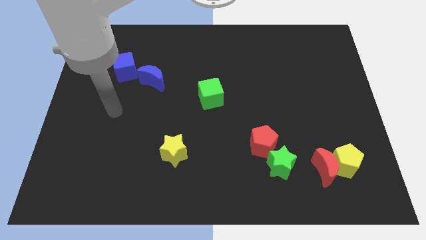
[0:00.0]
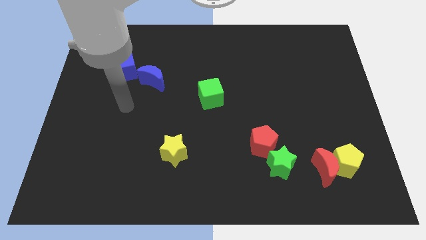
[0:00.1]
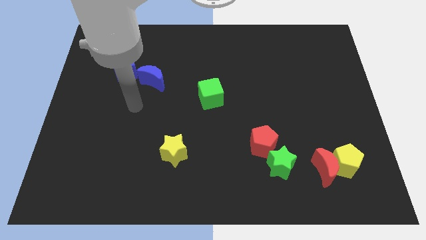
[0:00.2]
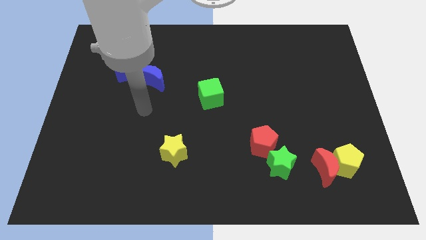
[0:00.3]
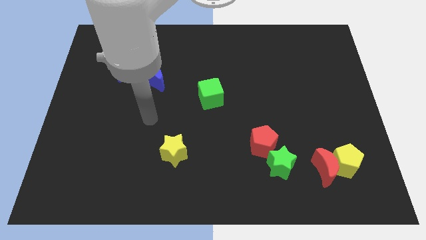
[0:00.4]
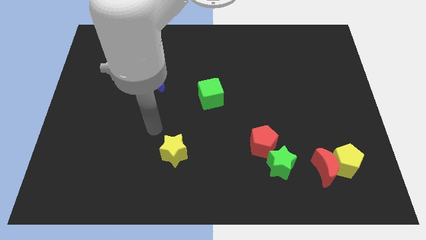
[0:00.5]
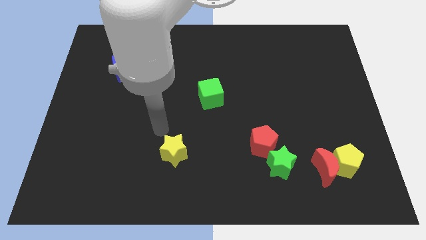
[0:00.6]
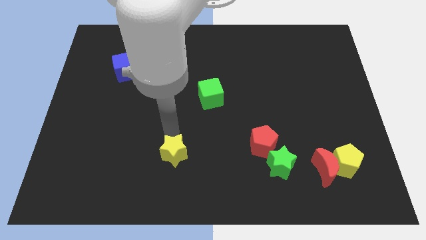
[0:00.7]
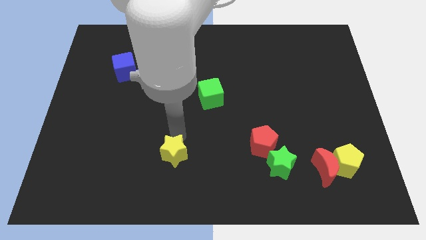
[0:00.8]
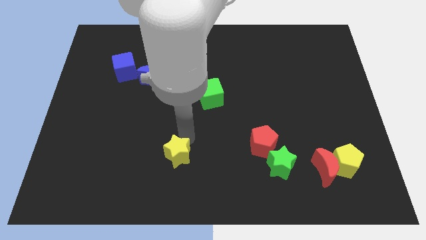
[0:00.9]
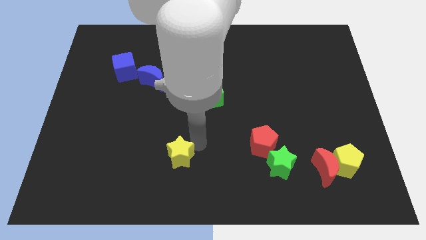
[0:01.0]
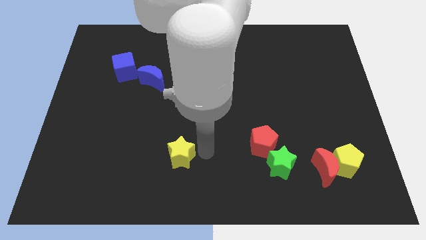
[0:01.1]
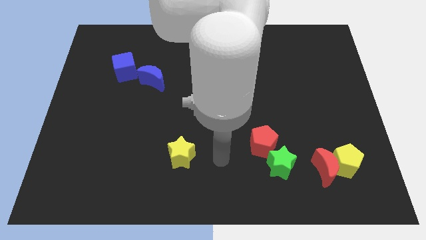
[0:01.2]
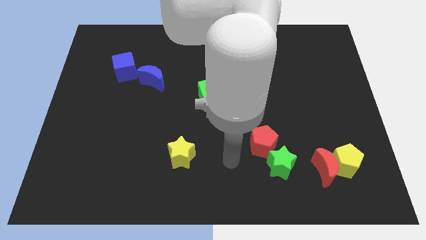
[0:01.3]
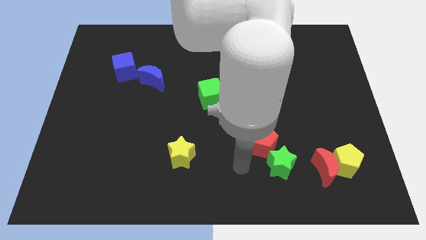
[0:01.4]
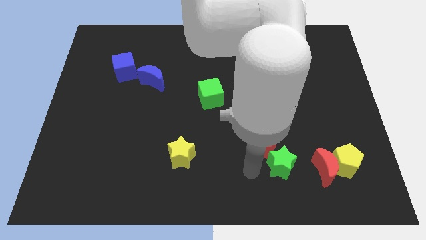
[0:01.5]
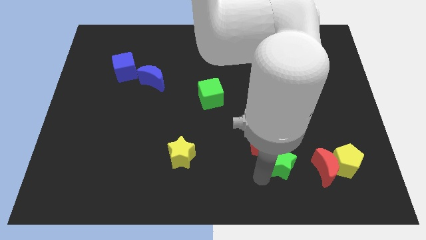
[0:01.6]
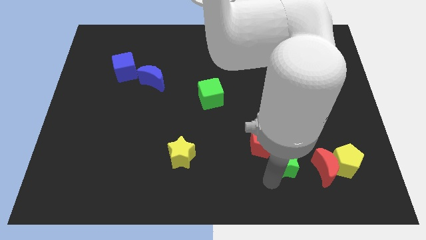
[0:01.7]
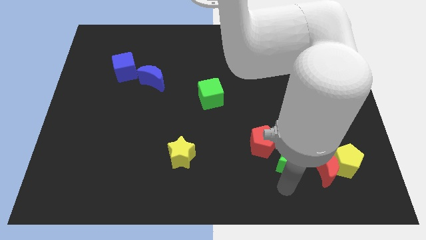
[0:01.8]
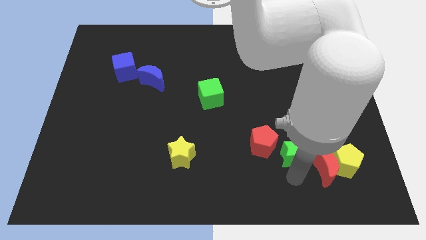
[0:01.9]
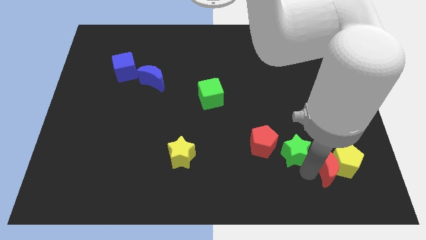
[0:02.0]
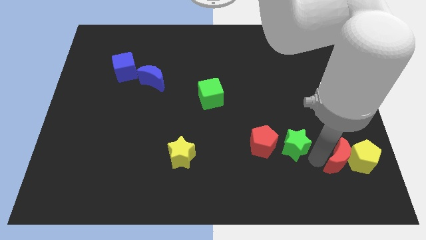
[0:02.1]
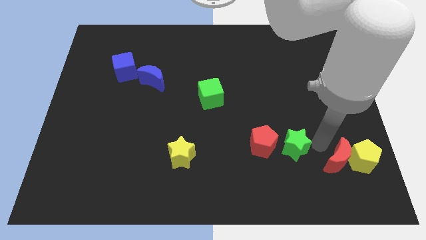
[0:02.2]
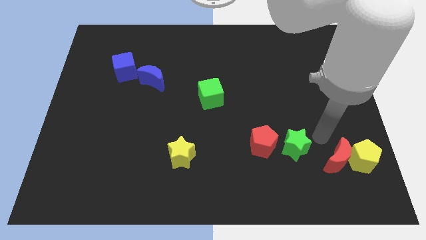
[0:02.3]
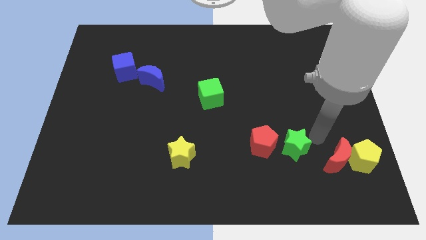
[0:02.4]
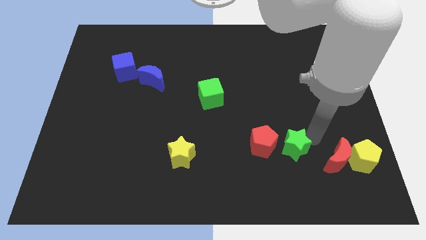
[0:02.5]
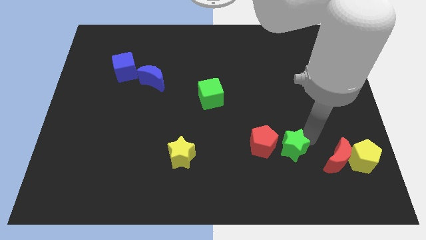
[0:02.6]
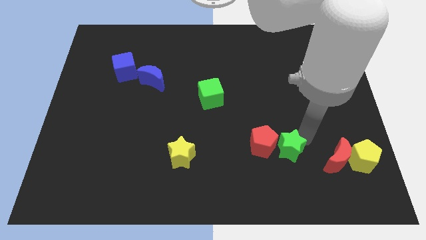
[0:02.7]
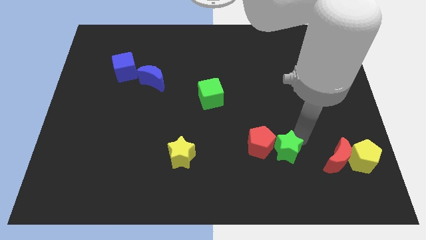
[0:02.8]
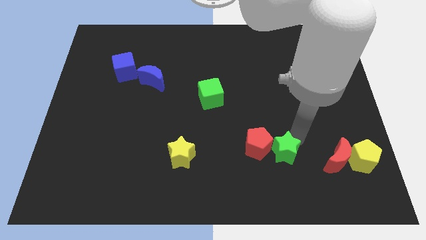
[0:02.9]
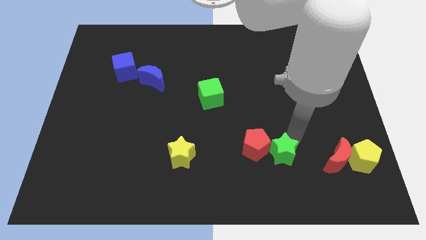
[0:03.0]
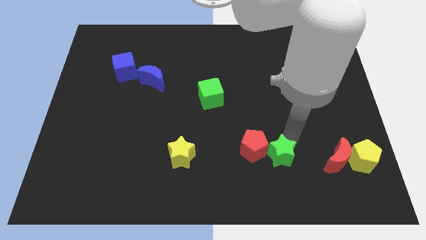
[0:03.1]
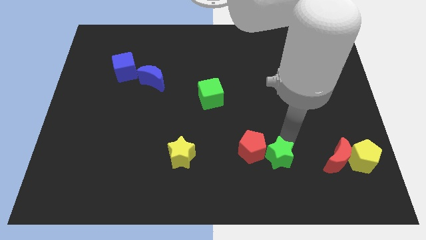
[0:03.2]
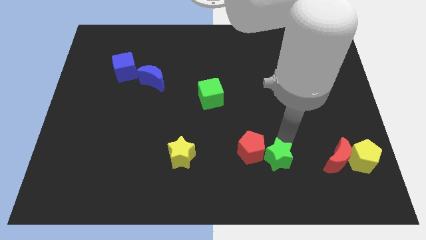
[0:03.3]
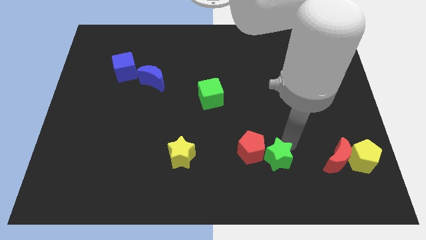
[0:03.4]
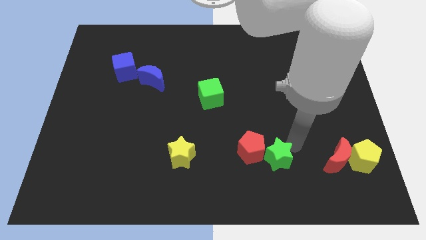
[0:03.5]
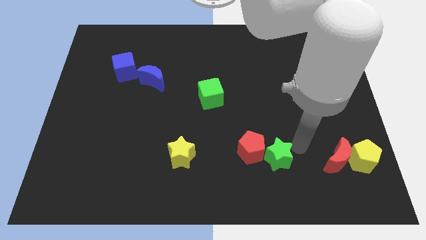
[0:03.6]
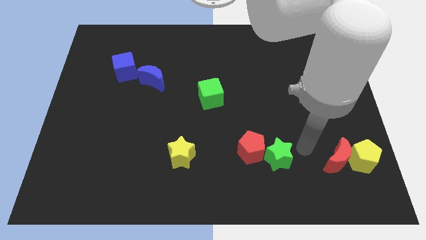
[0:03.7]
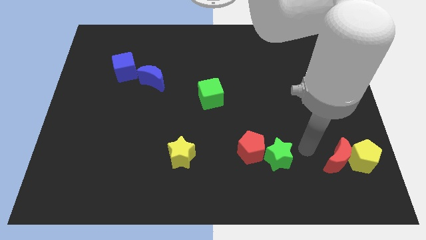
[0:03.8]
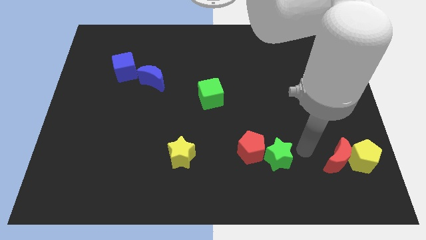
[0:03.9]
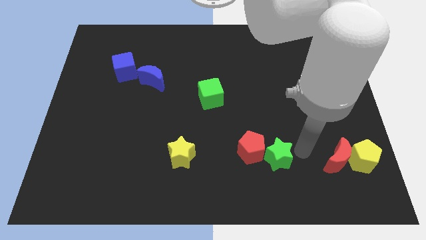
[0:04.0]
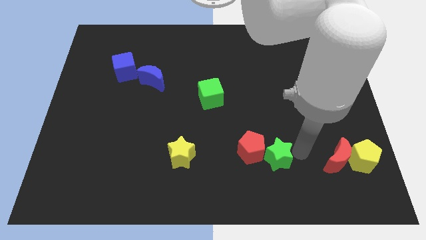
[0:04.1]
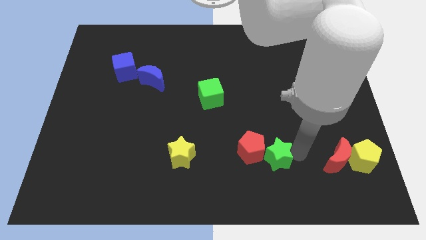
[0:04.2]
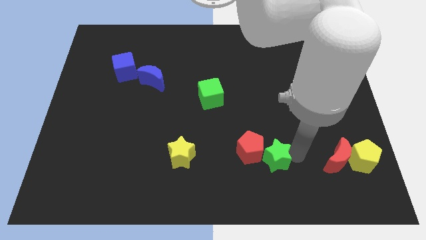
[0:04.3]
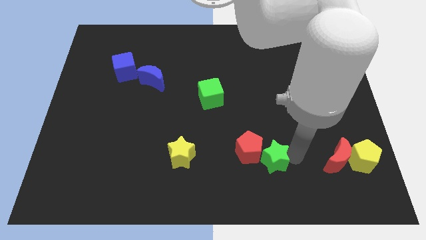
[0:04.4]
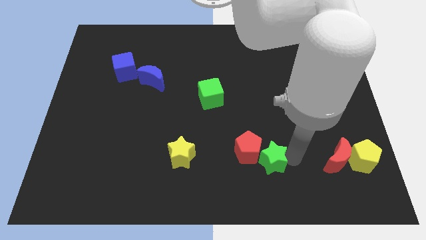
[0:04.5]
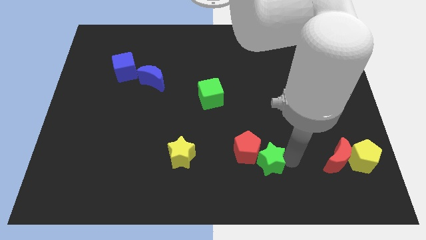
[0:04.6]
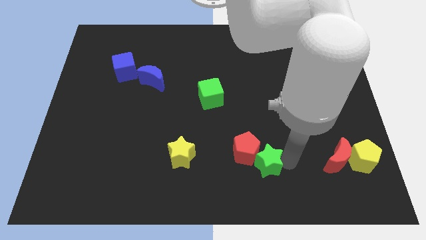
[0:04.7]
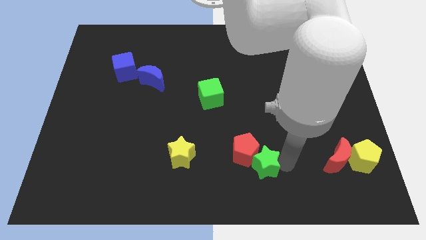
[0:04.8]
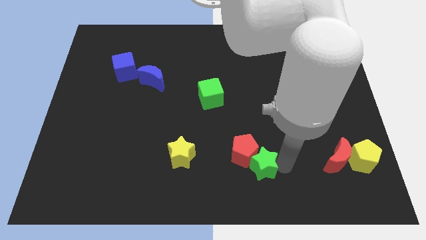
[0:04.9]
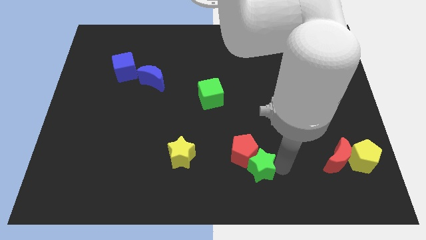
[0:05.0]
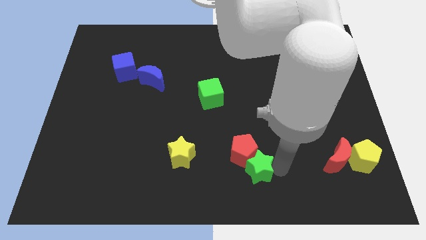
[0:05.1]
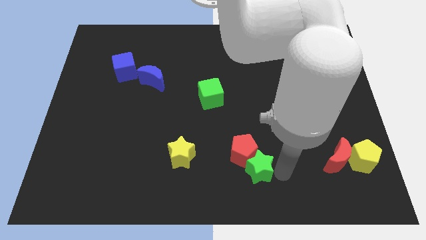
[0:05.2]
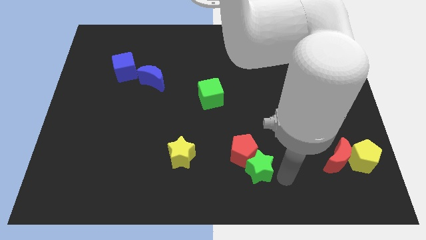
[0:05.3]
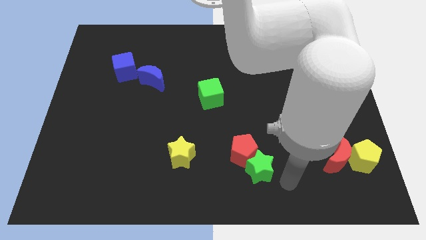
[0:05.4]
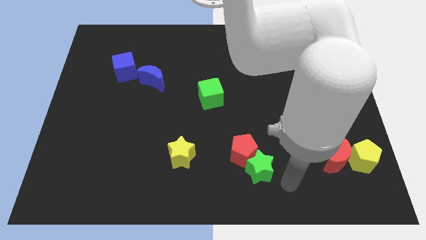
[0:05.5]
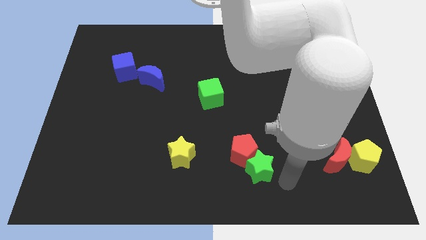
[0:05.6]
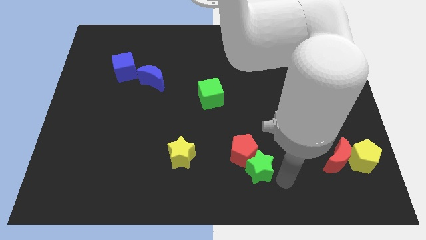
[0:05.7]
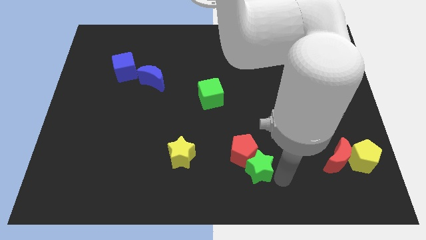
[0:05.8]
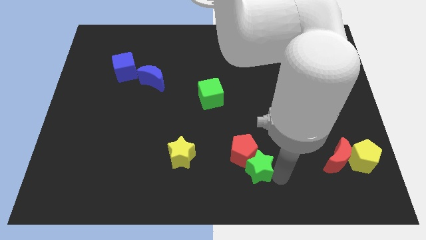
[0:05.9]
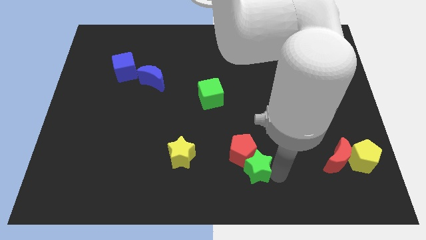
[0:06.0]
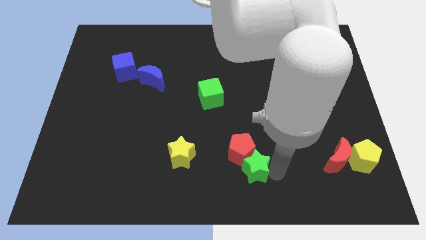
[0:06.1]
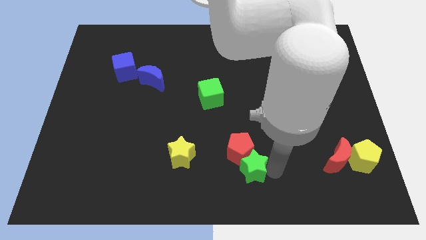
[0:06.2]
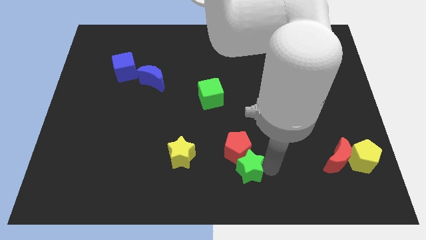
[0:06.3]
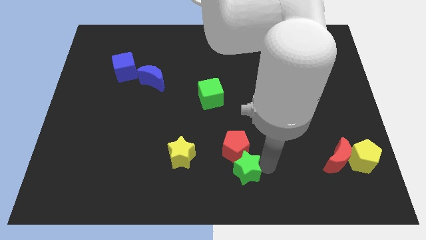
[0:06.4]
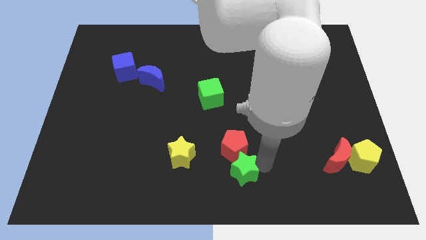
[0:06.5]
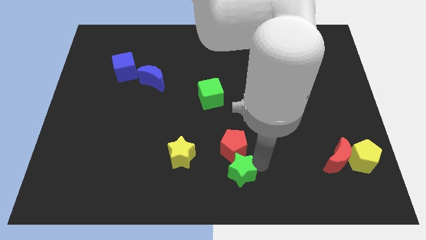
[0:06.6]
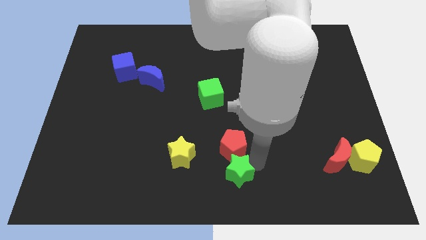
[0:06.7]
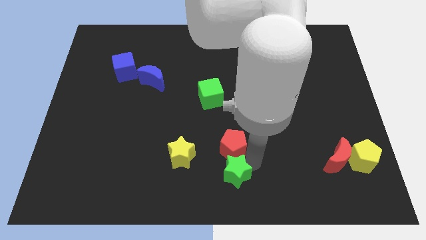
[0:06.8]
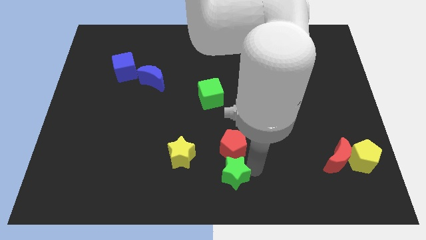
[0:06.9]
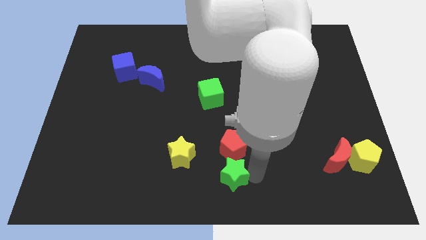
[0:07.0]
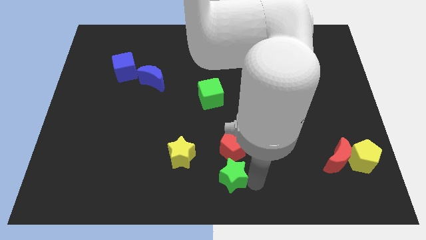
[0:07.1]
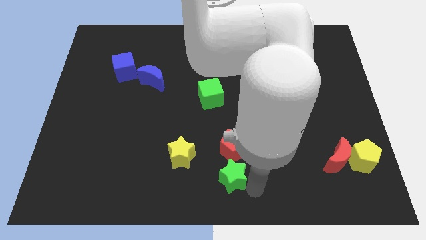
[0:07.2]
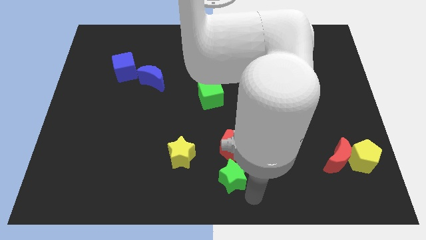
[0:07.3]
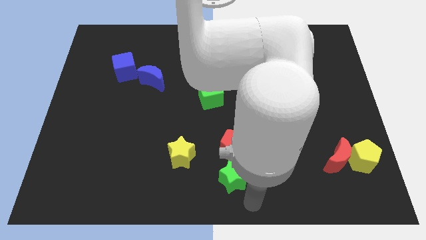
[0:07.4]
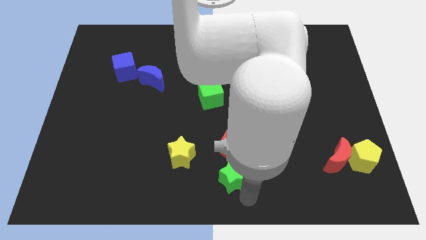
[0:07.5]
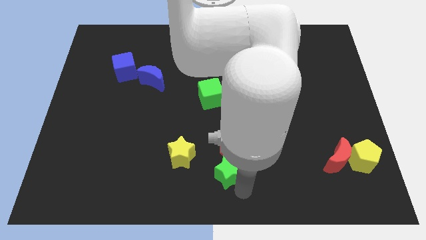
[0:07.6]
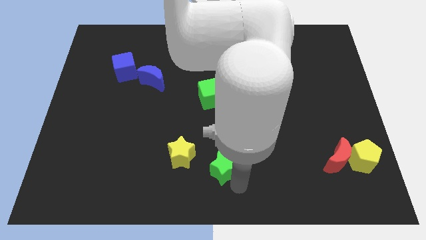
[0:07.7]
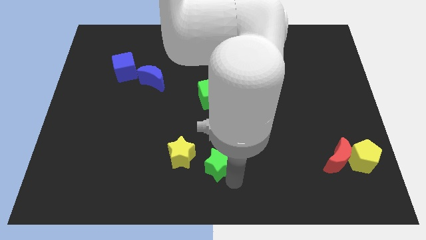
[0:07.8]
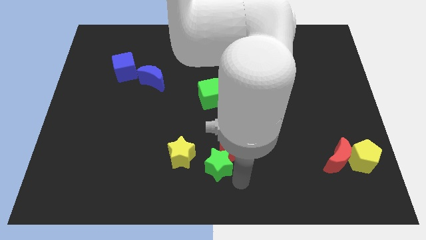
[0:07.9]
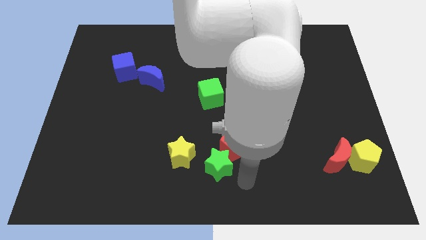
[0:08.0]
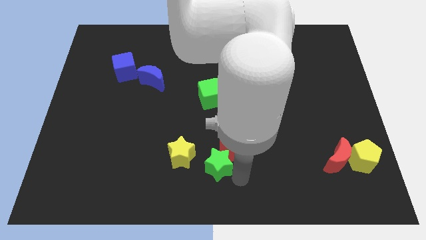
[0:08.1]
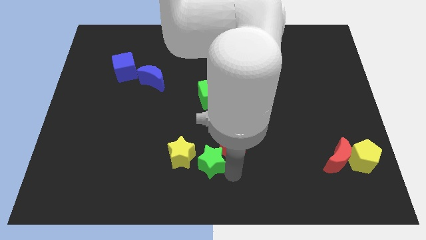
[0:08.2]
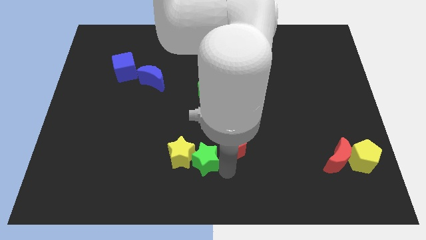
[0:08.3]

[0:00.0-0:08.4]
move the green star close to the yellow star
